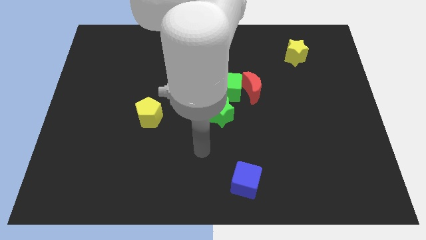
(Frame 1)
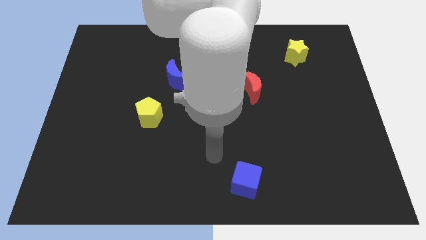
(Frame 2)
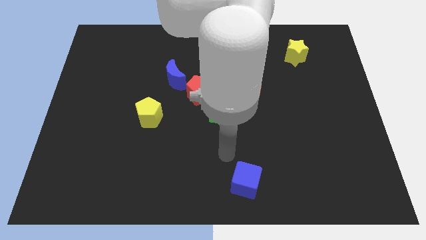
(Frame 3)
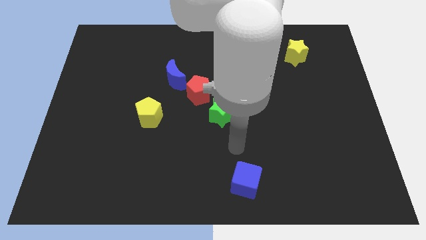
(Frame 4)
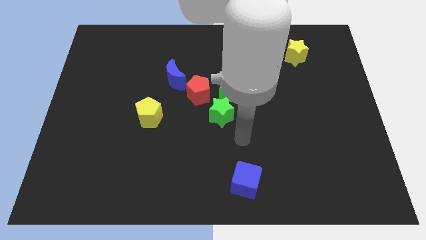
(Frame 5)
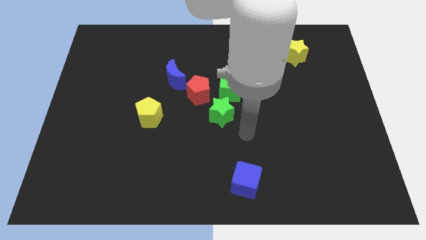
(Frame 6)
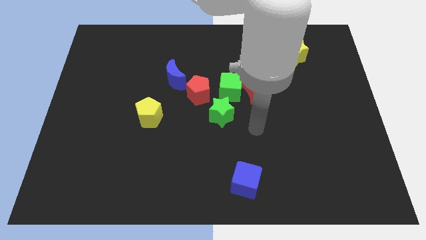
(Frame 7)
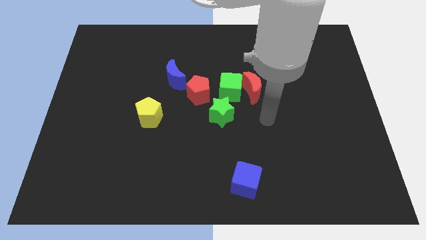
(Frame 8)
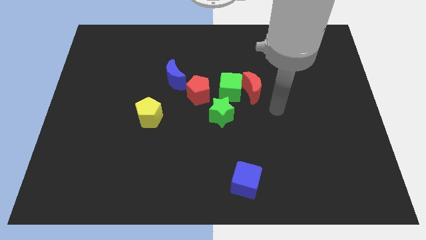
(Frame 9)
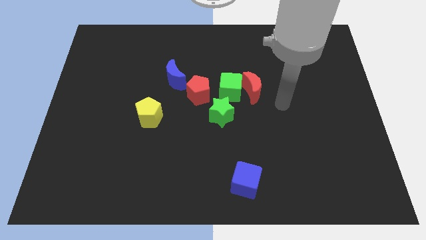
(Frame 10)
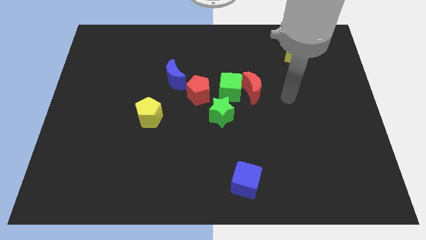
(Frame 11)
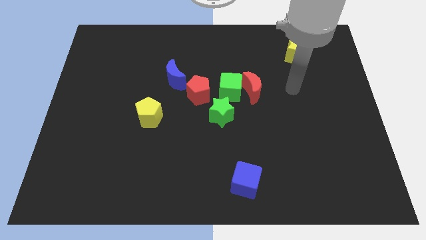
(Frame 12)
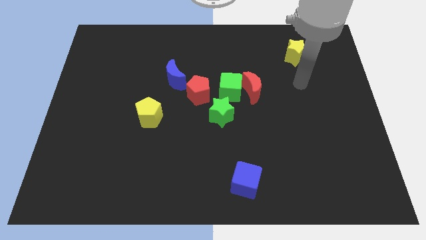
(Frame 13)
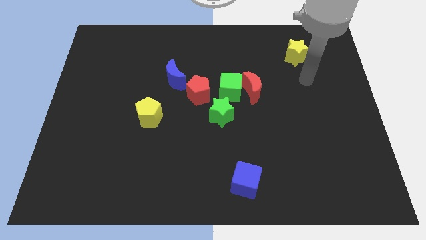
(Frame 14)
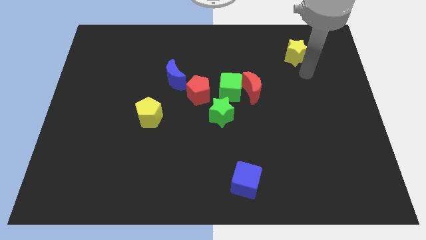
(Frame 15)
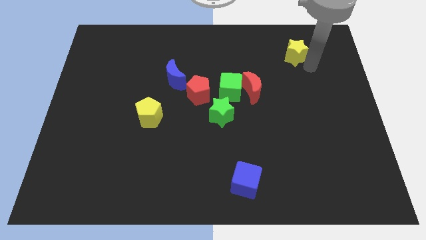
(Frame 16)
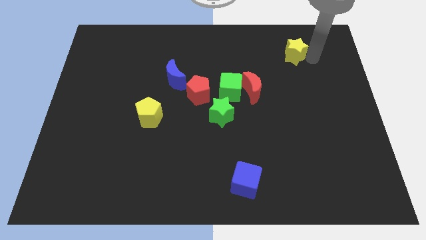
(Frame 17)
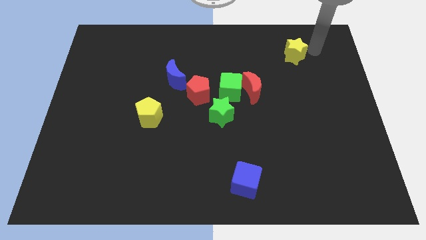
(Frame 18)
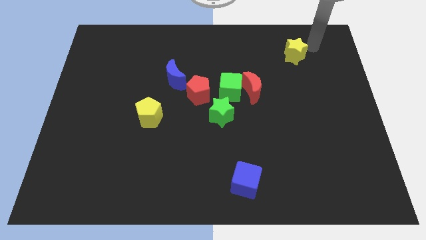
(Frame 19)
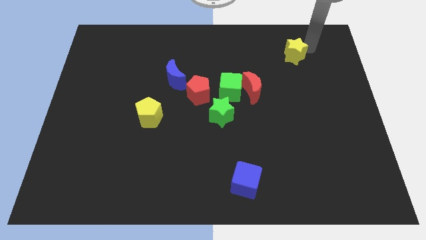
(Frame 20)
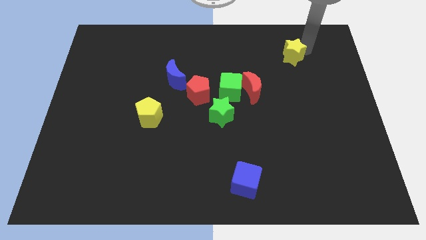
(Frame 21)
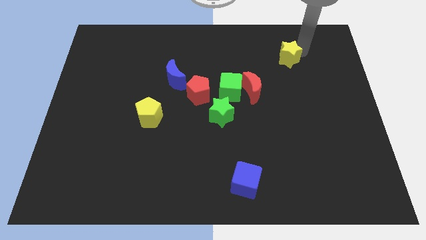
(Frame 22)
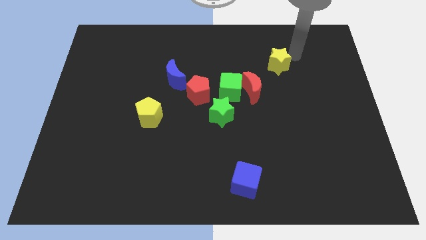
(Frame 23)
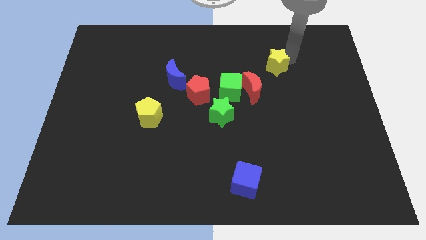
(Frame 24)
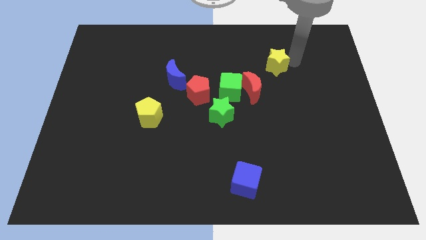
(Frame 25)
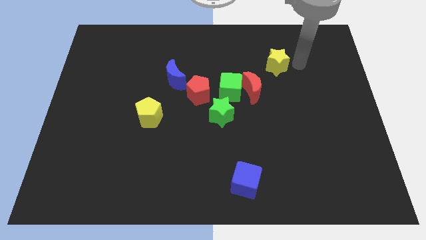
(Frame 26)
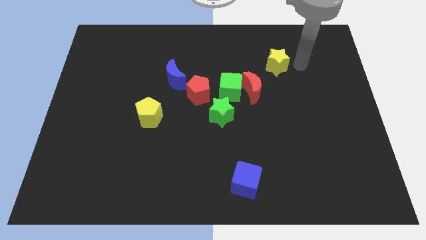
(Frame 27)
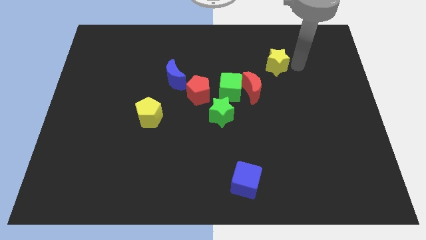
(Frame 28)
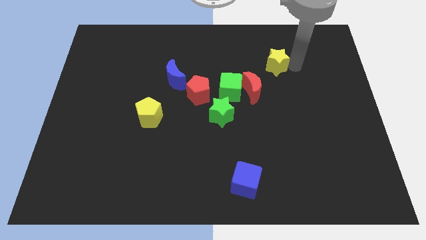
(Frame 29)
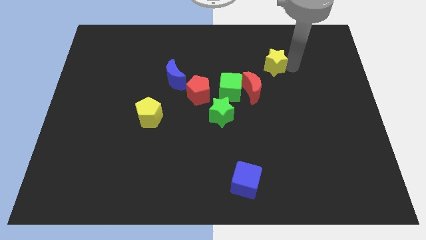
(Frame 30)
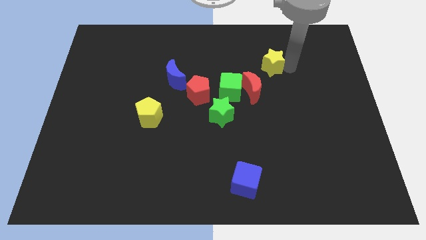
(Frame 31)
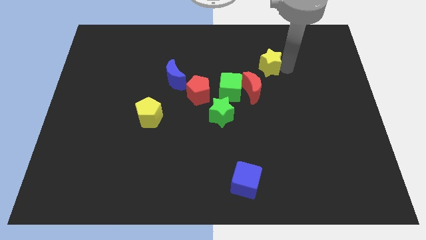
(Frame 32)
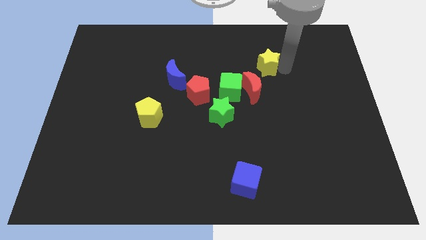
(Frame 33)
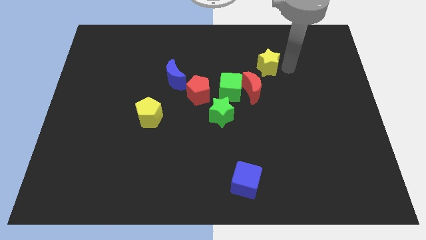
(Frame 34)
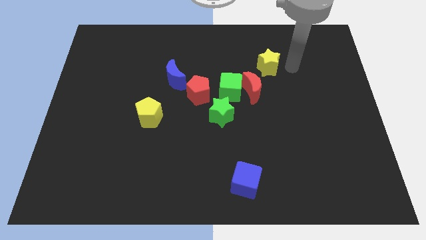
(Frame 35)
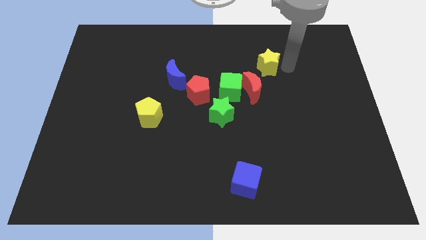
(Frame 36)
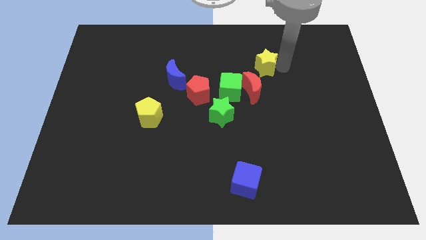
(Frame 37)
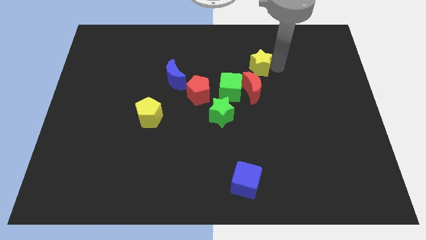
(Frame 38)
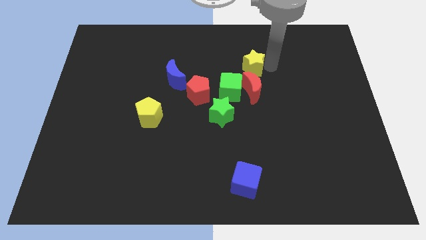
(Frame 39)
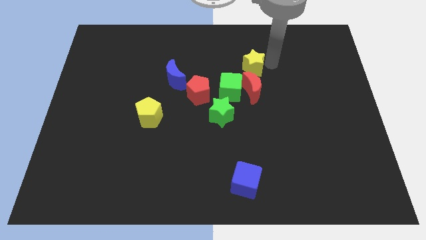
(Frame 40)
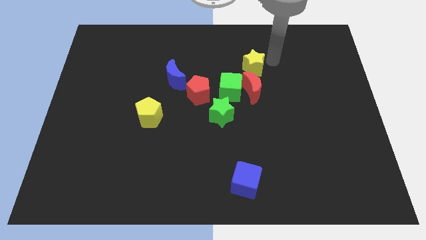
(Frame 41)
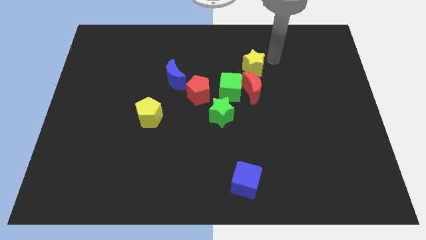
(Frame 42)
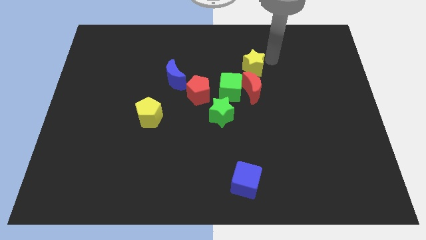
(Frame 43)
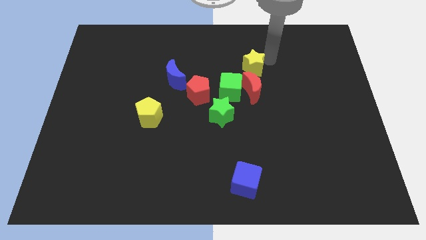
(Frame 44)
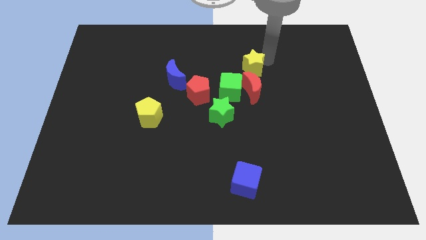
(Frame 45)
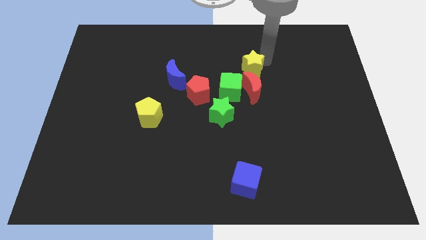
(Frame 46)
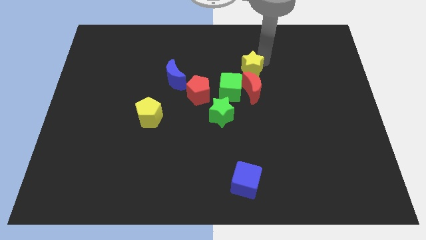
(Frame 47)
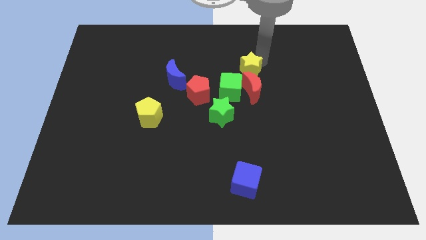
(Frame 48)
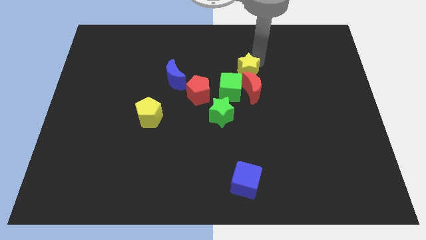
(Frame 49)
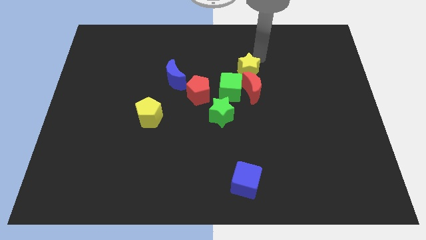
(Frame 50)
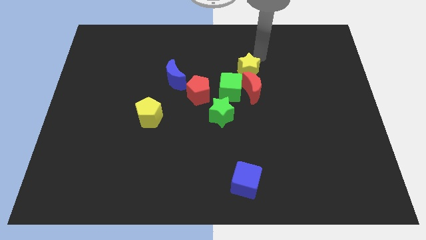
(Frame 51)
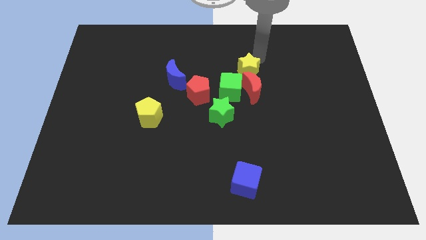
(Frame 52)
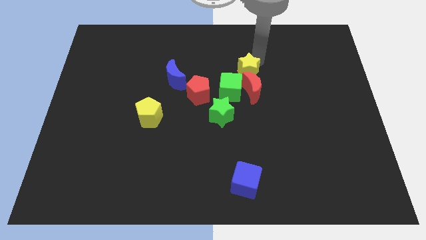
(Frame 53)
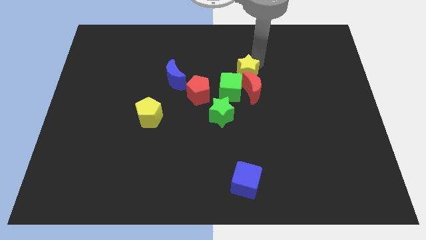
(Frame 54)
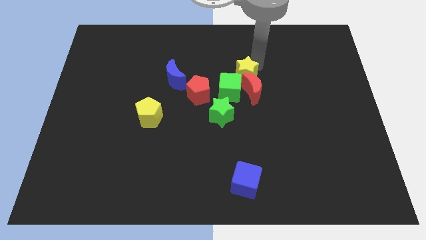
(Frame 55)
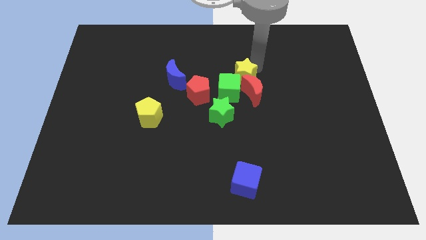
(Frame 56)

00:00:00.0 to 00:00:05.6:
put the yellow star close to the green cube
